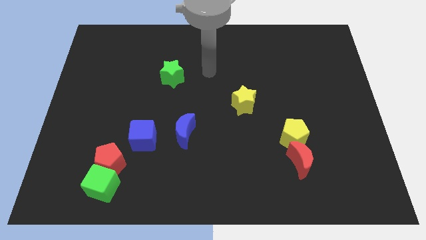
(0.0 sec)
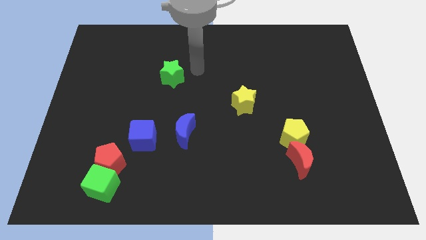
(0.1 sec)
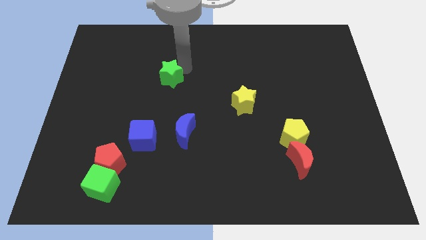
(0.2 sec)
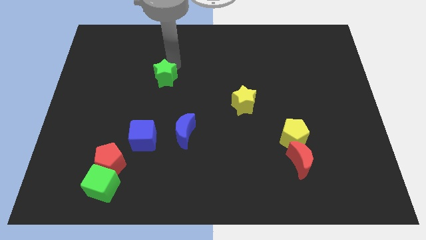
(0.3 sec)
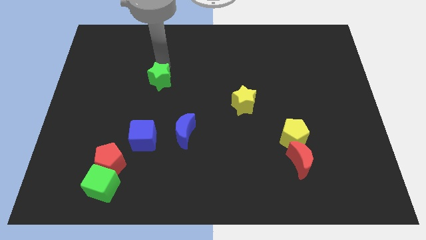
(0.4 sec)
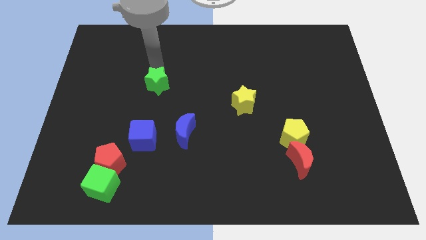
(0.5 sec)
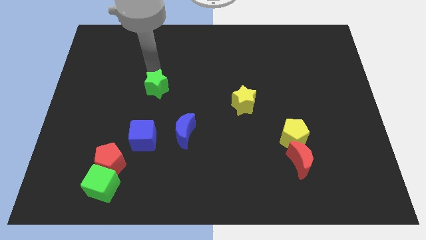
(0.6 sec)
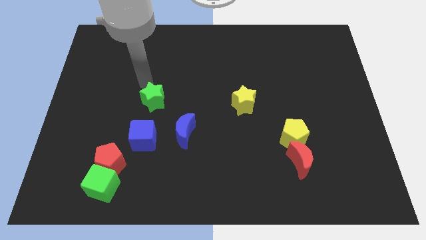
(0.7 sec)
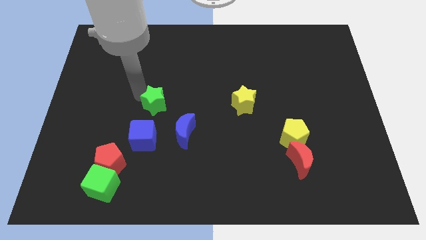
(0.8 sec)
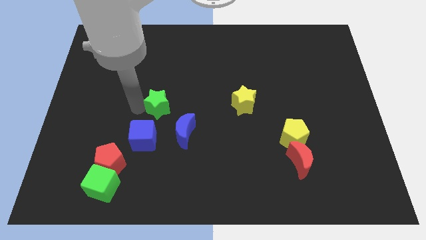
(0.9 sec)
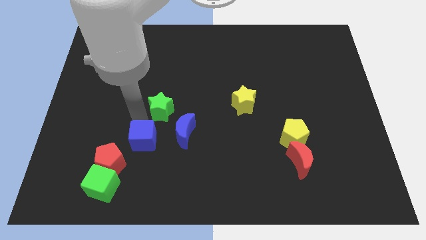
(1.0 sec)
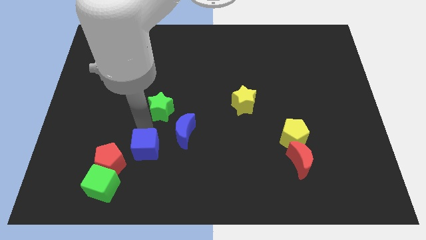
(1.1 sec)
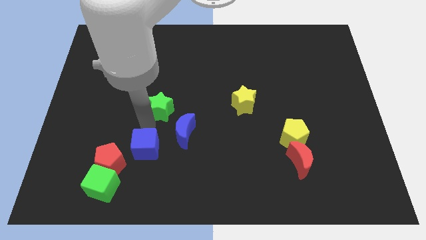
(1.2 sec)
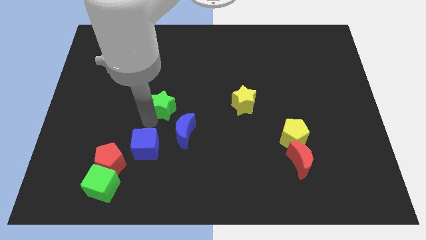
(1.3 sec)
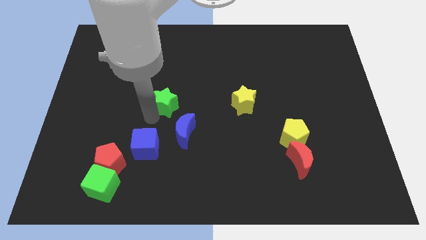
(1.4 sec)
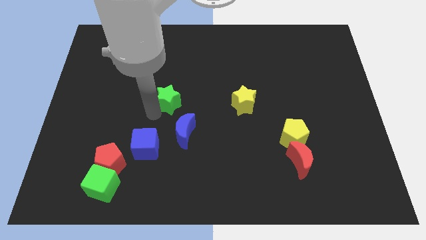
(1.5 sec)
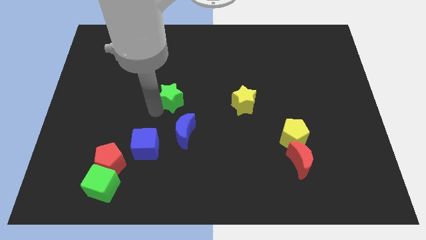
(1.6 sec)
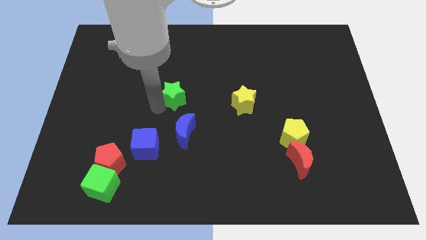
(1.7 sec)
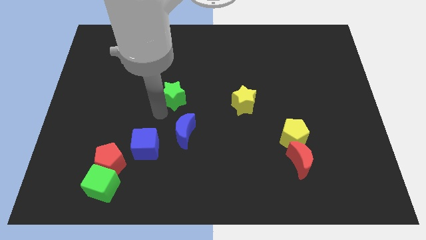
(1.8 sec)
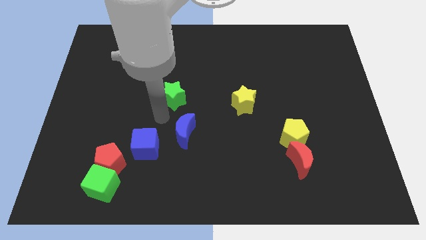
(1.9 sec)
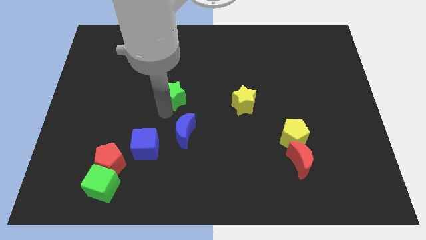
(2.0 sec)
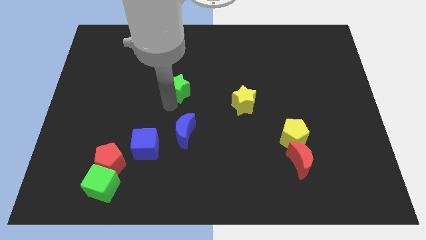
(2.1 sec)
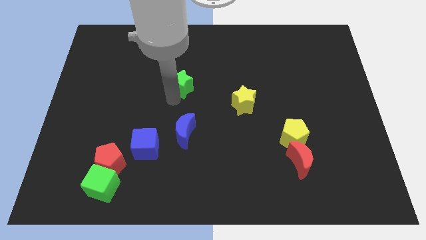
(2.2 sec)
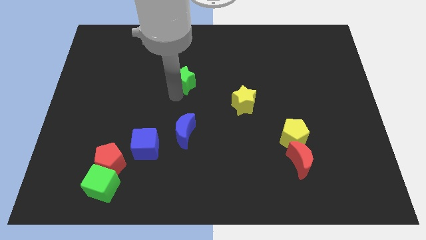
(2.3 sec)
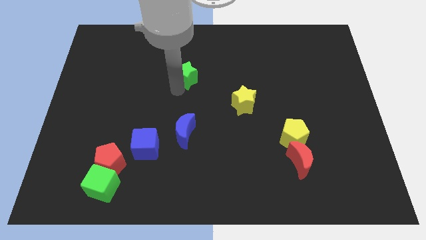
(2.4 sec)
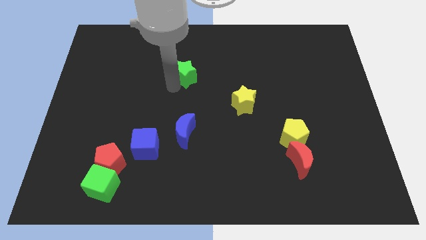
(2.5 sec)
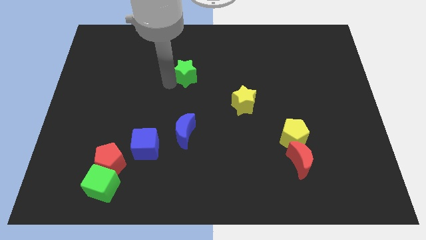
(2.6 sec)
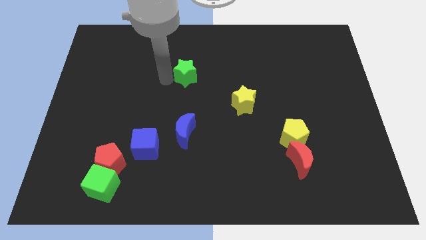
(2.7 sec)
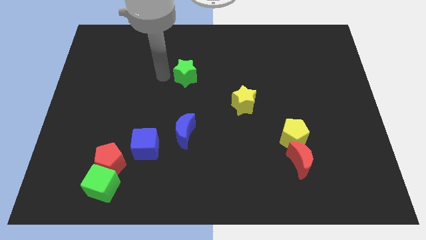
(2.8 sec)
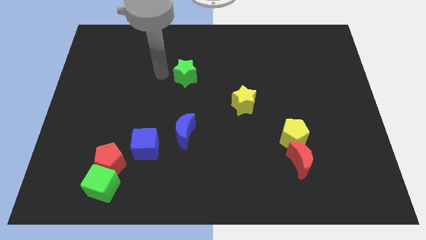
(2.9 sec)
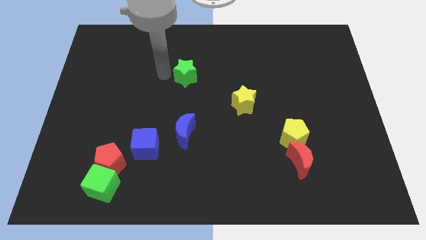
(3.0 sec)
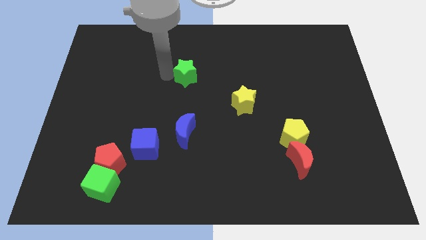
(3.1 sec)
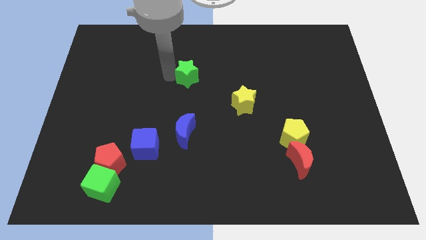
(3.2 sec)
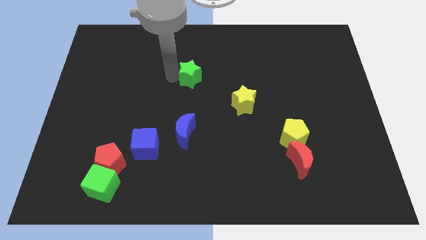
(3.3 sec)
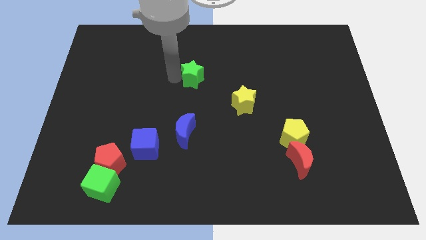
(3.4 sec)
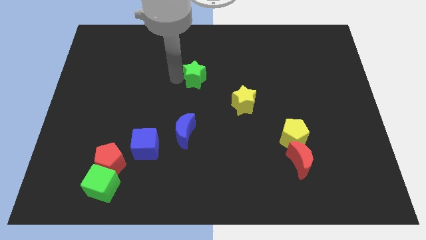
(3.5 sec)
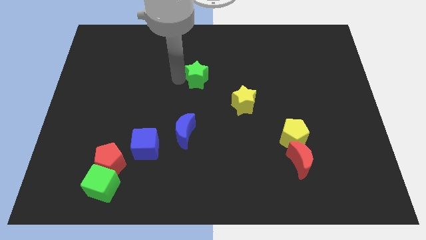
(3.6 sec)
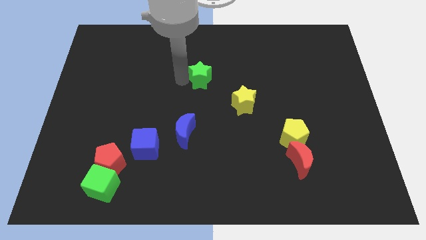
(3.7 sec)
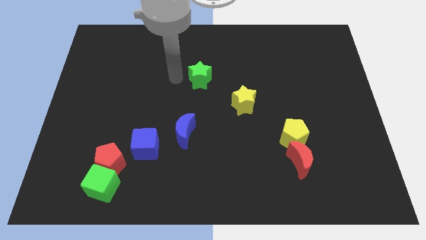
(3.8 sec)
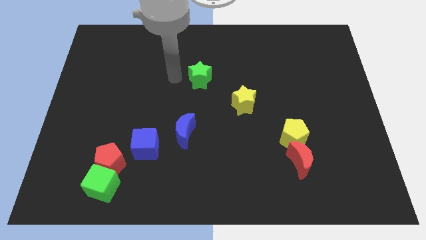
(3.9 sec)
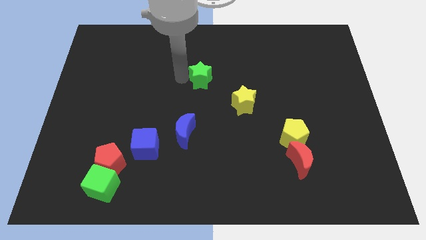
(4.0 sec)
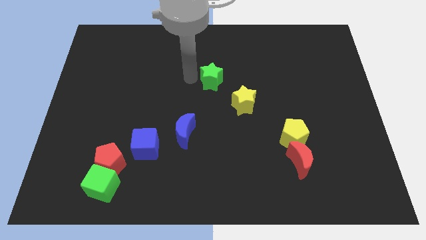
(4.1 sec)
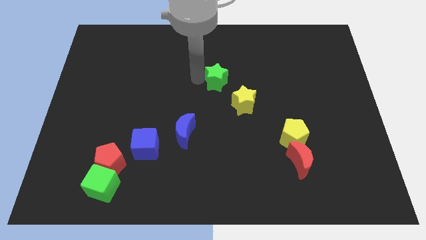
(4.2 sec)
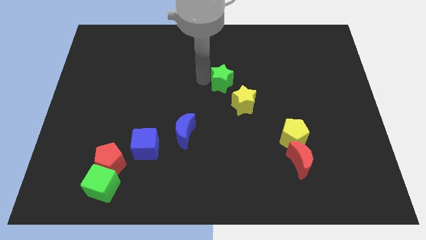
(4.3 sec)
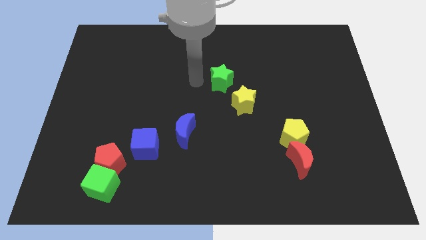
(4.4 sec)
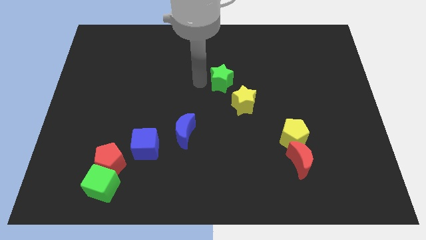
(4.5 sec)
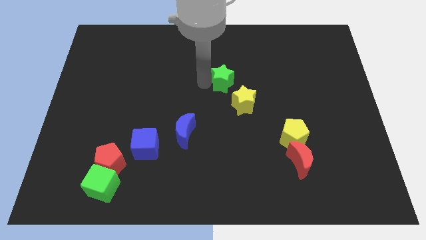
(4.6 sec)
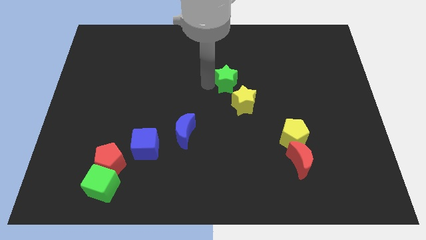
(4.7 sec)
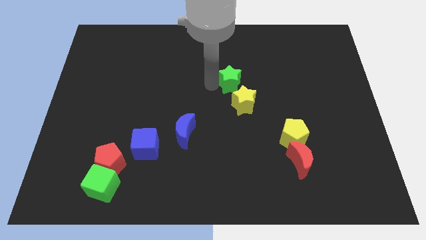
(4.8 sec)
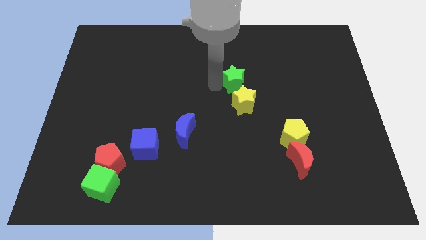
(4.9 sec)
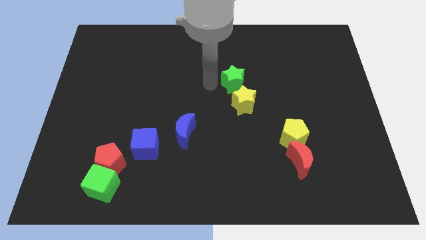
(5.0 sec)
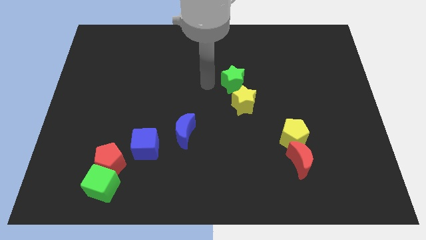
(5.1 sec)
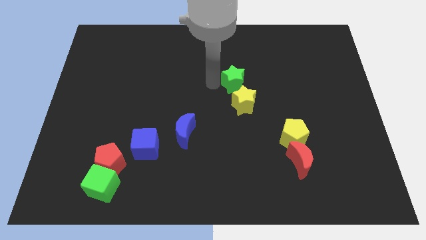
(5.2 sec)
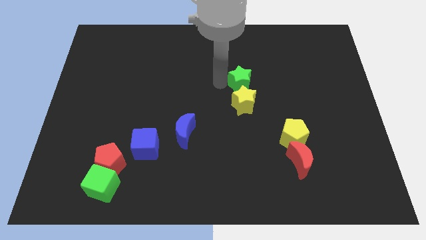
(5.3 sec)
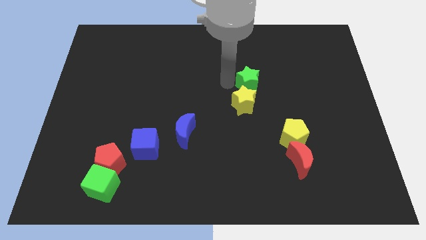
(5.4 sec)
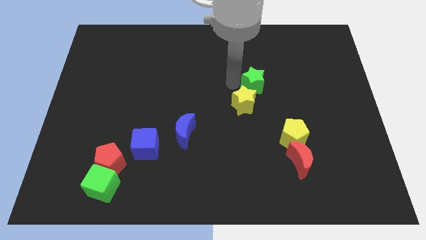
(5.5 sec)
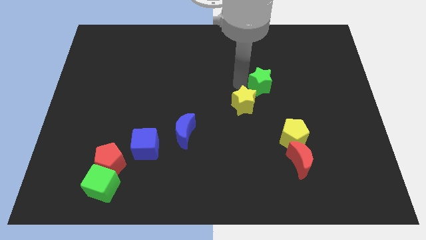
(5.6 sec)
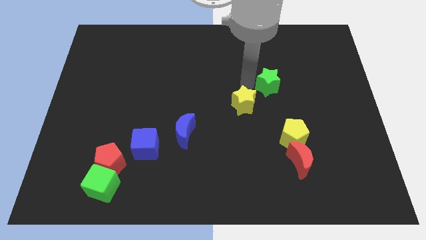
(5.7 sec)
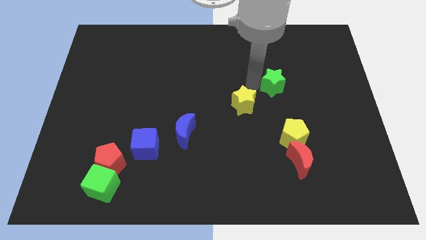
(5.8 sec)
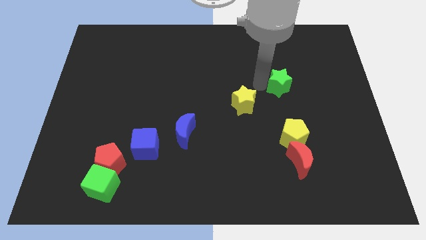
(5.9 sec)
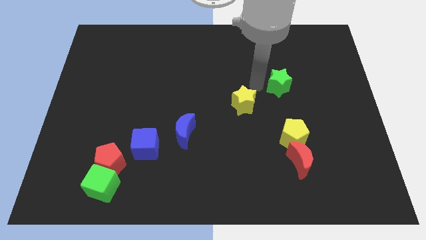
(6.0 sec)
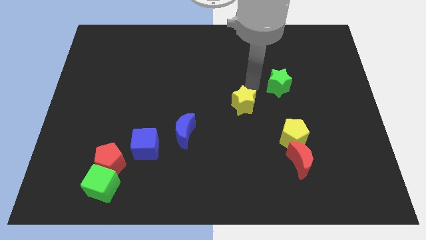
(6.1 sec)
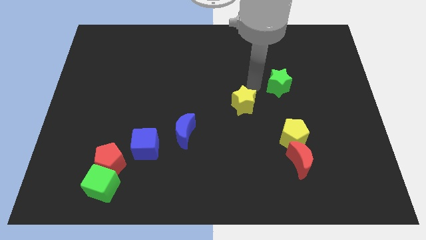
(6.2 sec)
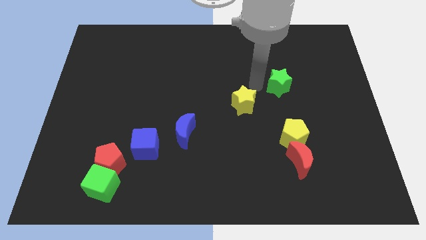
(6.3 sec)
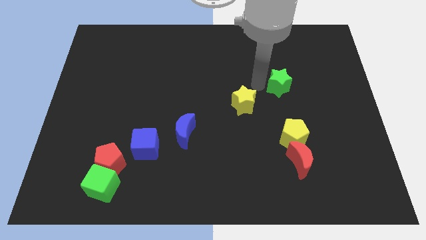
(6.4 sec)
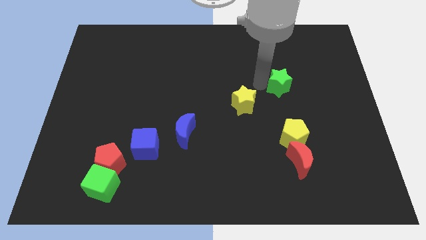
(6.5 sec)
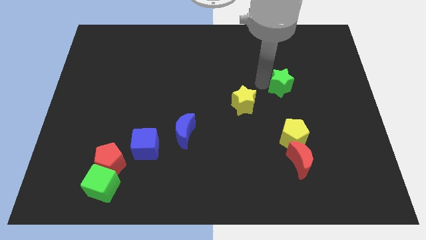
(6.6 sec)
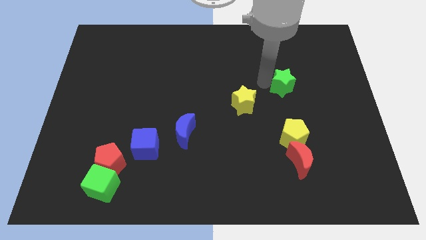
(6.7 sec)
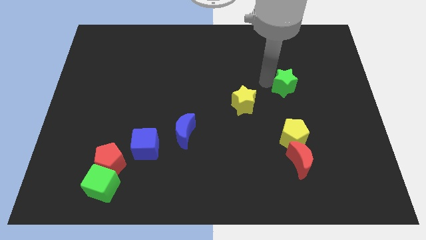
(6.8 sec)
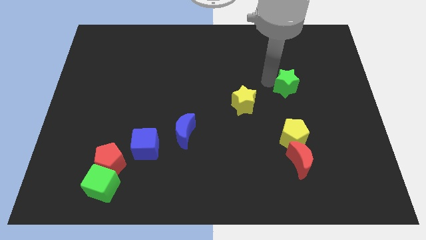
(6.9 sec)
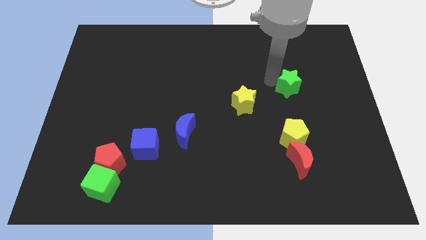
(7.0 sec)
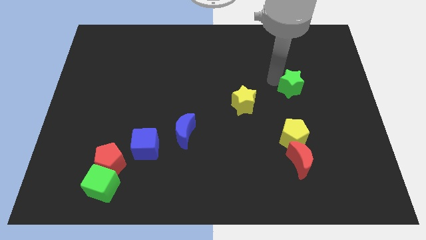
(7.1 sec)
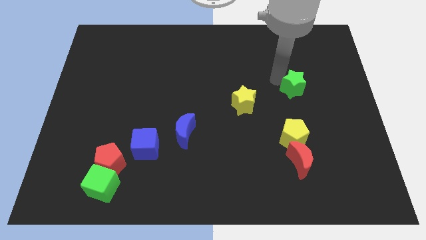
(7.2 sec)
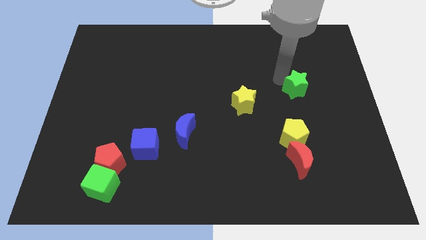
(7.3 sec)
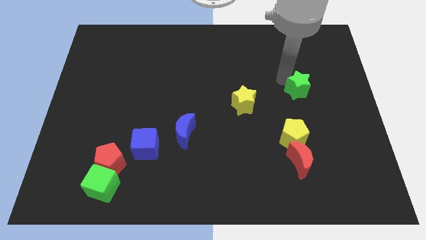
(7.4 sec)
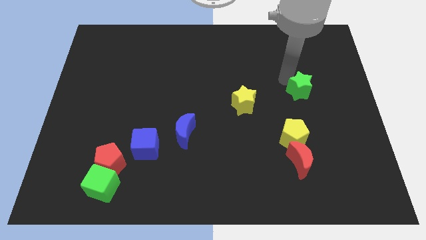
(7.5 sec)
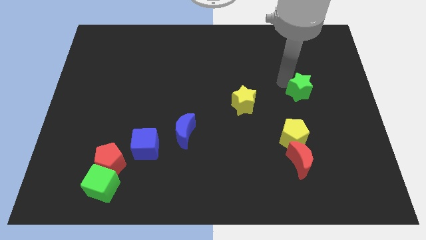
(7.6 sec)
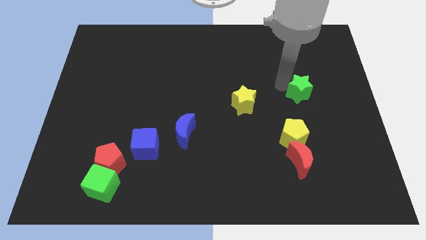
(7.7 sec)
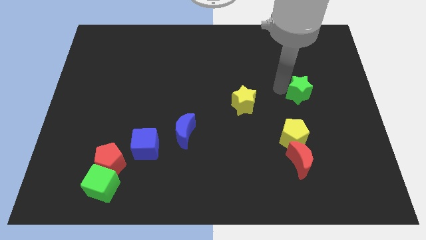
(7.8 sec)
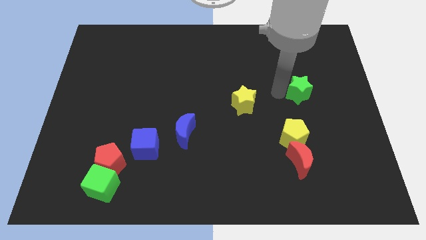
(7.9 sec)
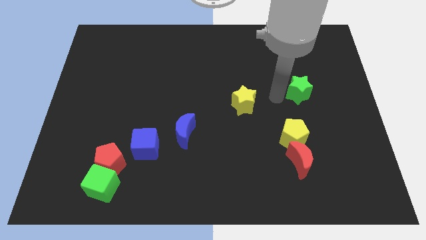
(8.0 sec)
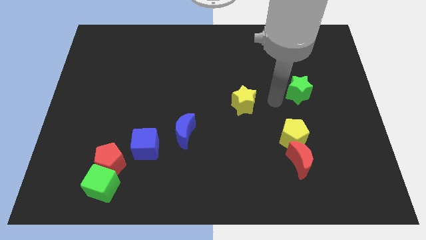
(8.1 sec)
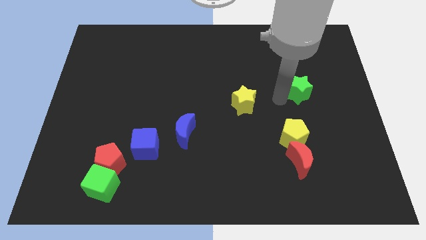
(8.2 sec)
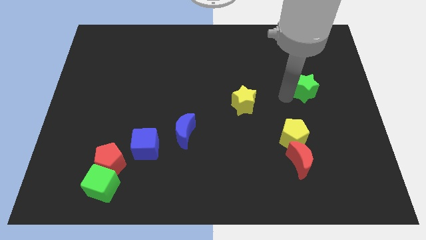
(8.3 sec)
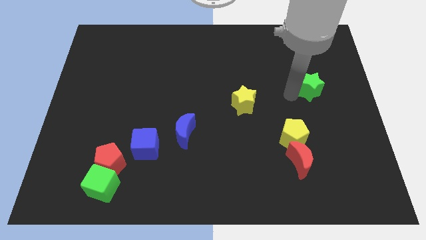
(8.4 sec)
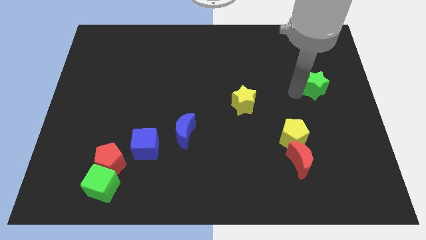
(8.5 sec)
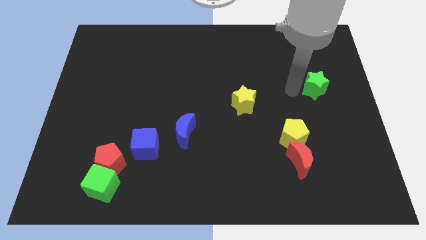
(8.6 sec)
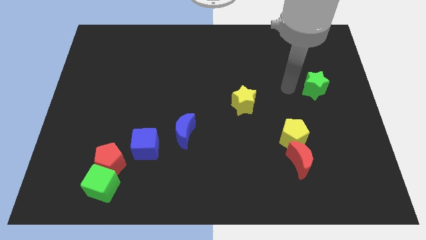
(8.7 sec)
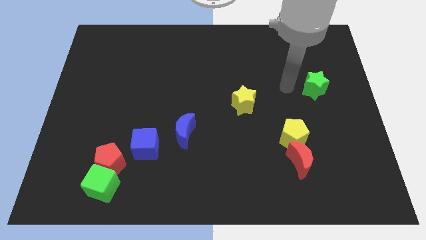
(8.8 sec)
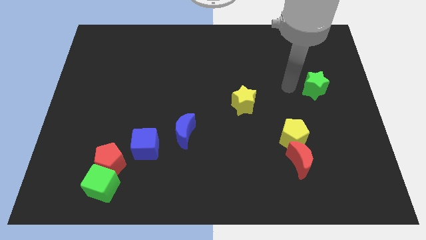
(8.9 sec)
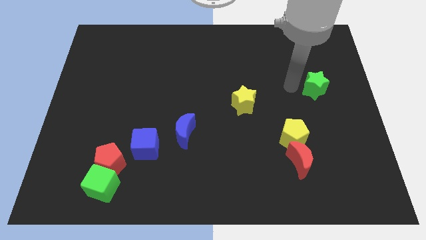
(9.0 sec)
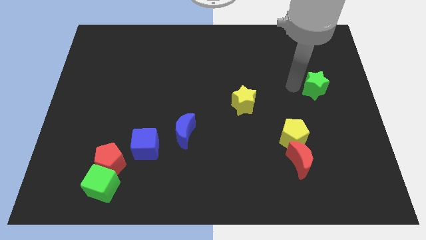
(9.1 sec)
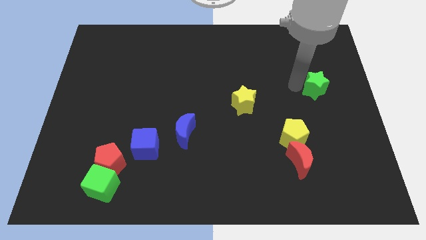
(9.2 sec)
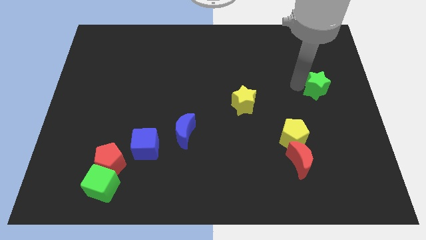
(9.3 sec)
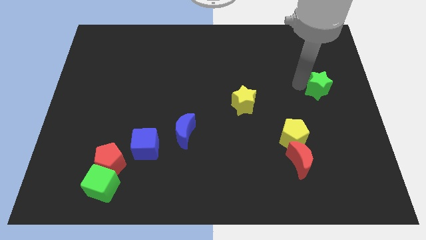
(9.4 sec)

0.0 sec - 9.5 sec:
push the green star to the center right
